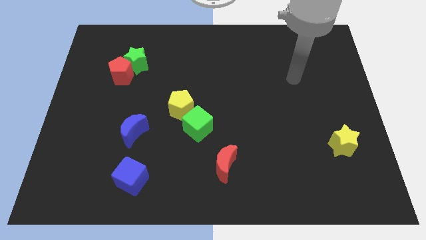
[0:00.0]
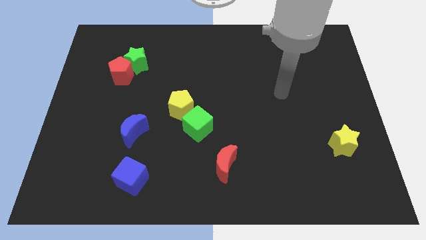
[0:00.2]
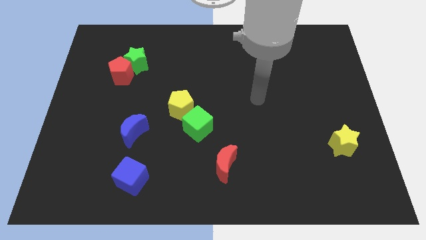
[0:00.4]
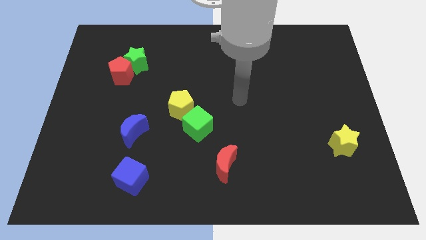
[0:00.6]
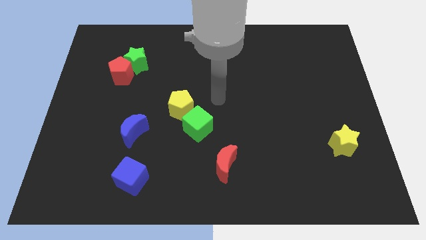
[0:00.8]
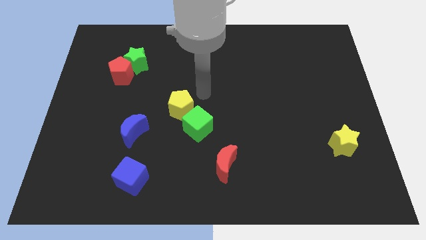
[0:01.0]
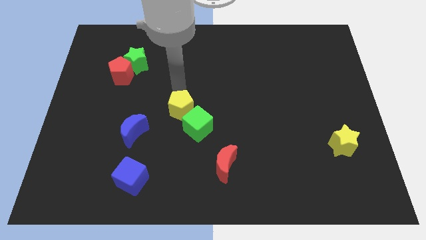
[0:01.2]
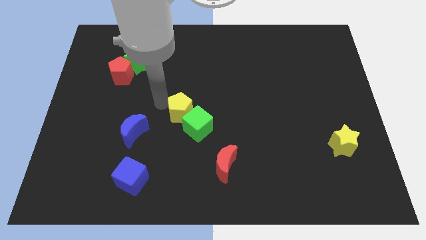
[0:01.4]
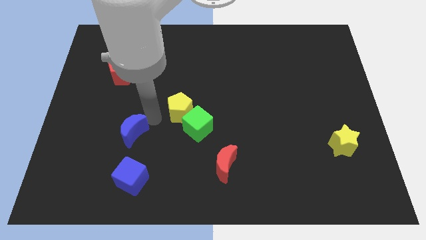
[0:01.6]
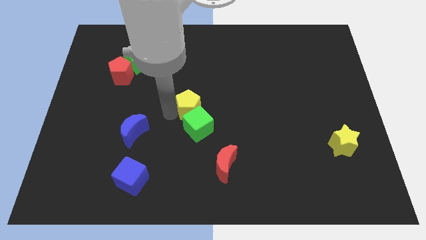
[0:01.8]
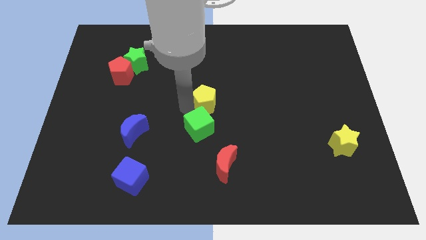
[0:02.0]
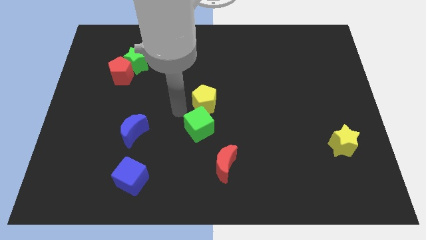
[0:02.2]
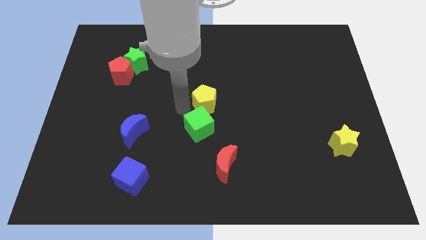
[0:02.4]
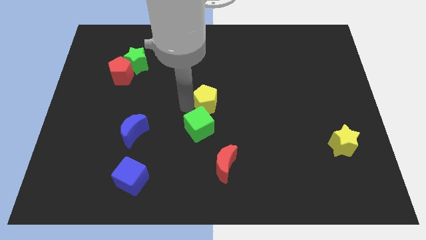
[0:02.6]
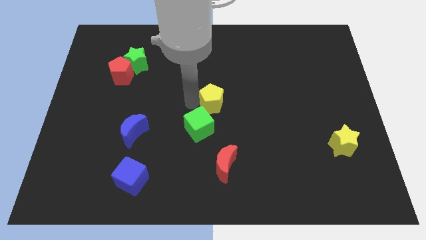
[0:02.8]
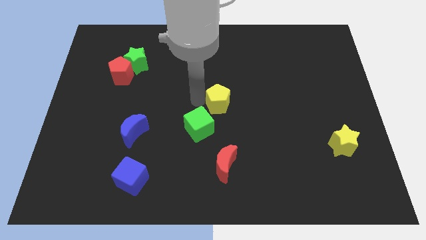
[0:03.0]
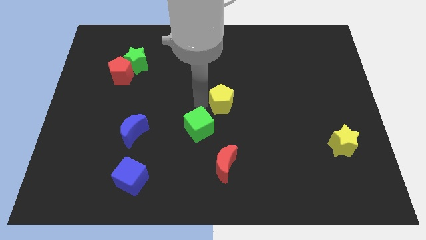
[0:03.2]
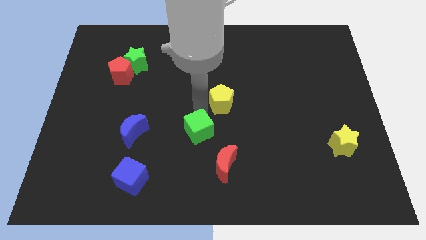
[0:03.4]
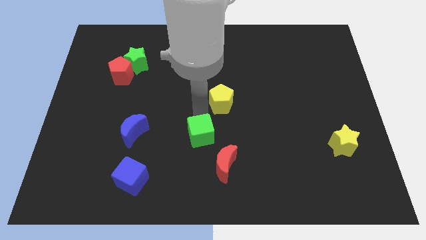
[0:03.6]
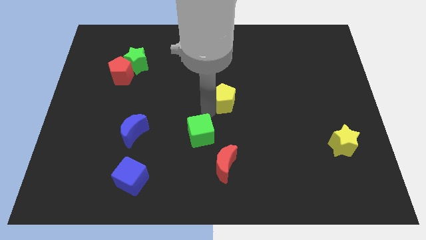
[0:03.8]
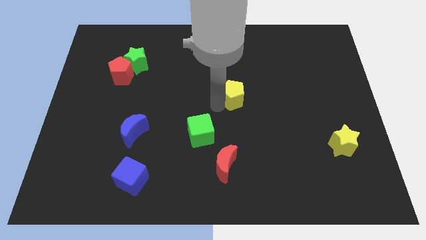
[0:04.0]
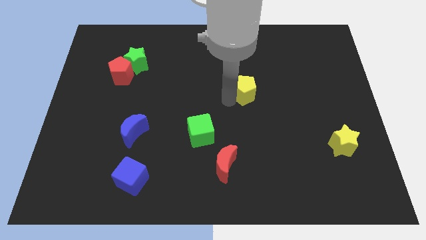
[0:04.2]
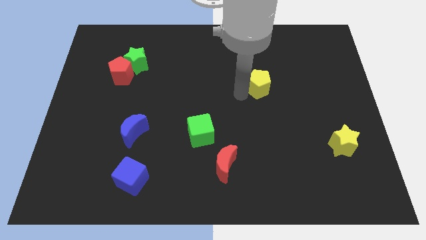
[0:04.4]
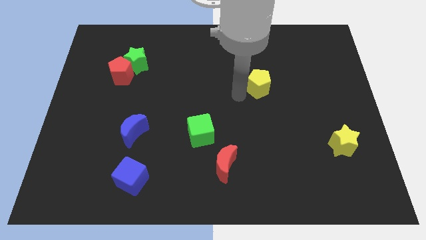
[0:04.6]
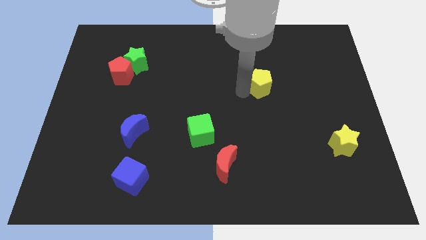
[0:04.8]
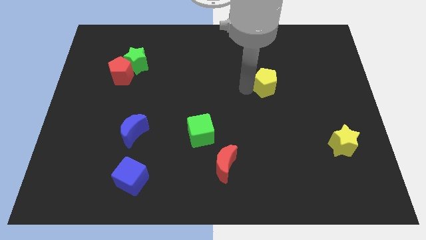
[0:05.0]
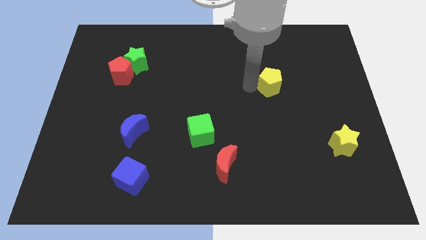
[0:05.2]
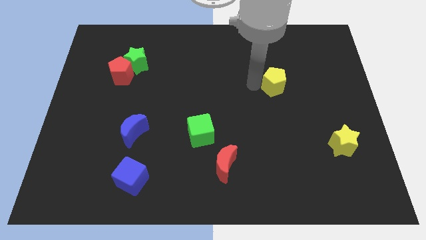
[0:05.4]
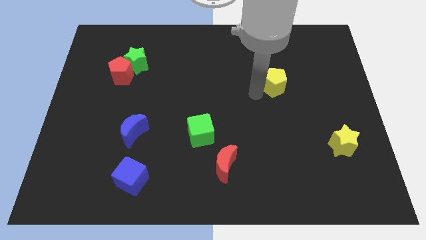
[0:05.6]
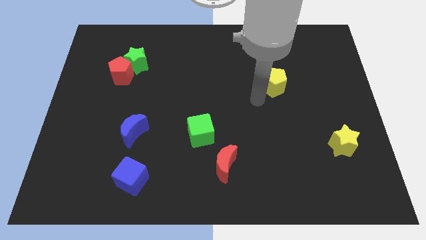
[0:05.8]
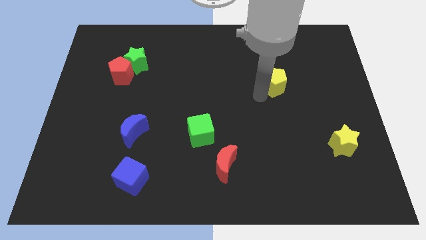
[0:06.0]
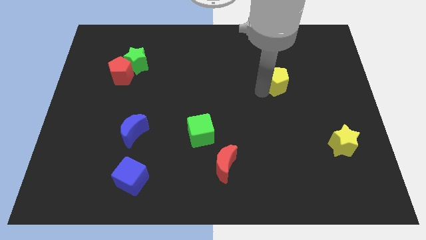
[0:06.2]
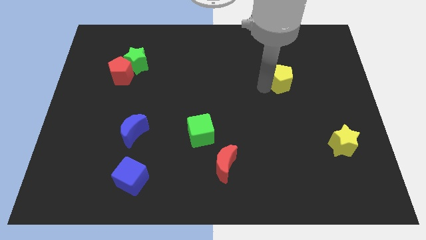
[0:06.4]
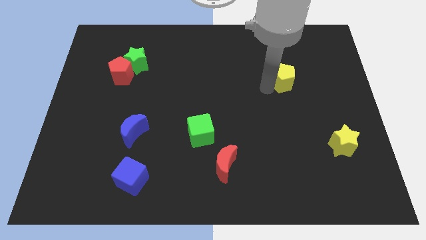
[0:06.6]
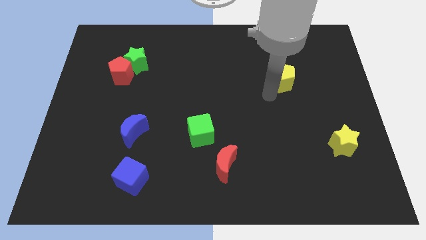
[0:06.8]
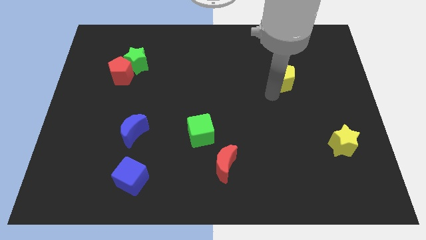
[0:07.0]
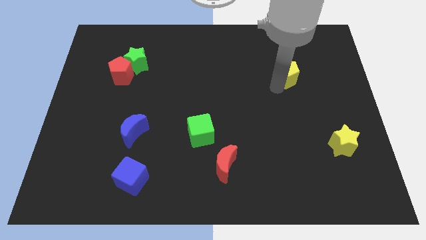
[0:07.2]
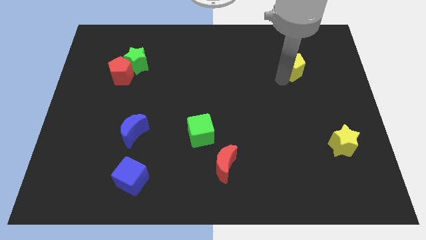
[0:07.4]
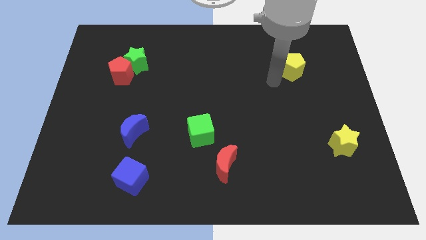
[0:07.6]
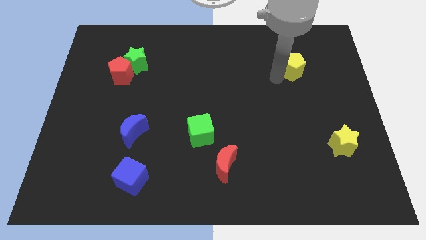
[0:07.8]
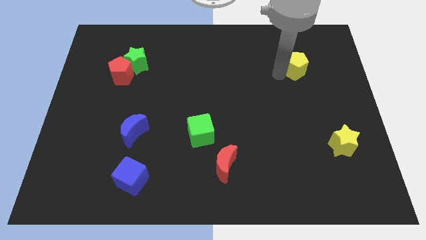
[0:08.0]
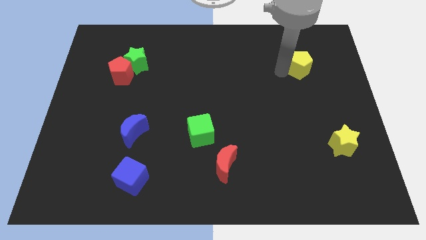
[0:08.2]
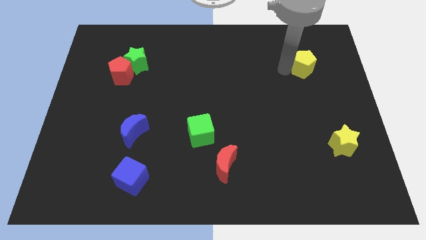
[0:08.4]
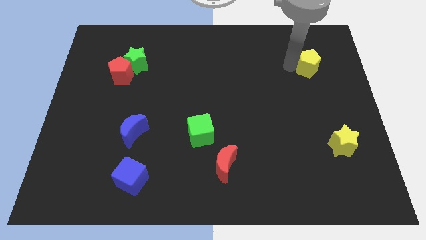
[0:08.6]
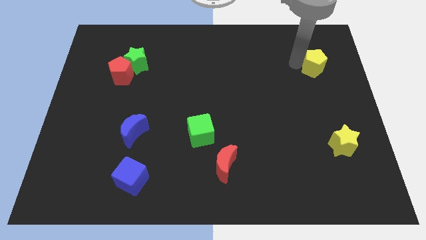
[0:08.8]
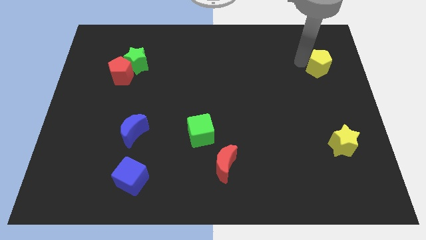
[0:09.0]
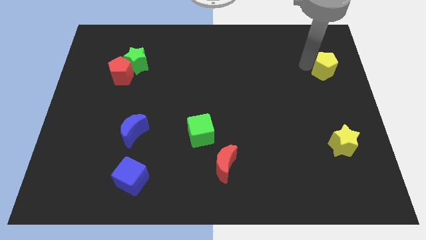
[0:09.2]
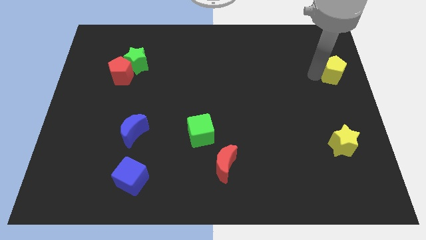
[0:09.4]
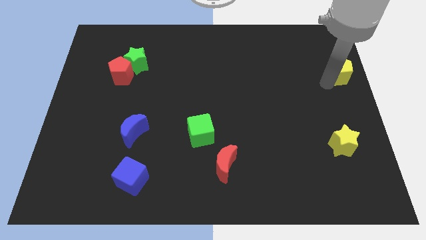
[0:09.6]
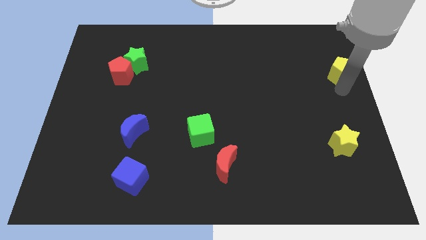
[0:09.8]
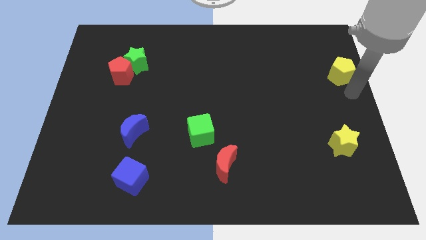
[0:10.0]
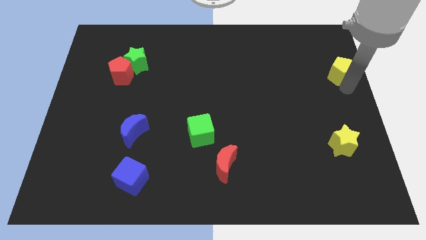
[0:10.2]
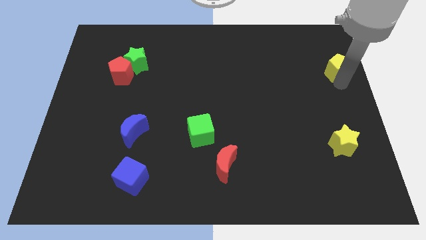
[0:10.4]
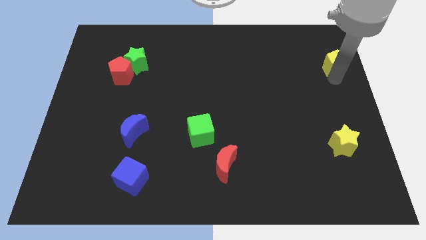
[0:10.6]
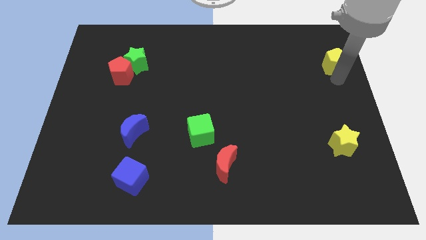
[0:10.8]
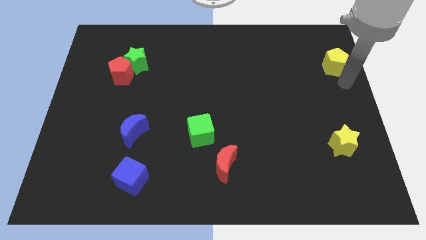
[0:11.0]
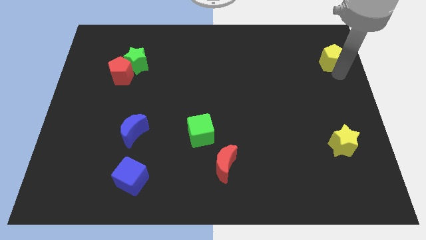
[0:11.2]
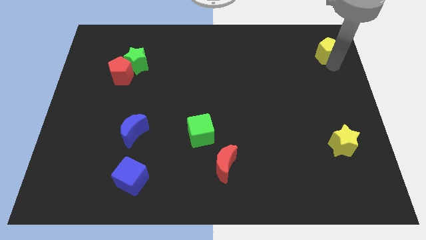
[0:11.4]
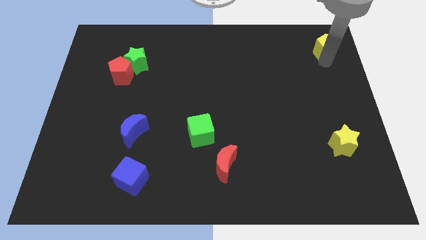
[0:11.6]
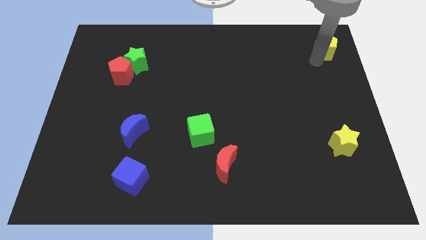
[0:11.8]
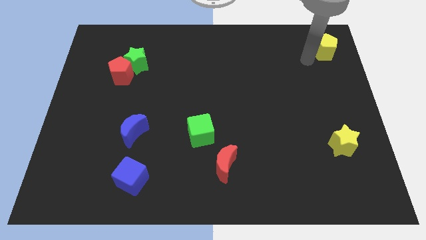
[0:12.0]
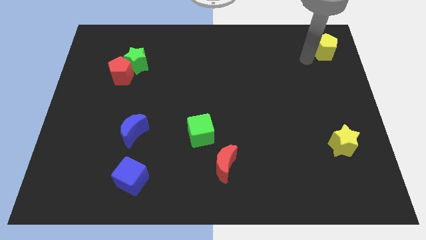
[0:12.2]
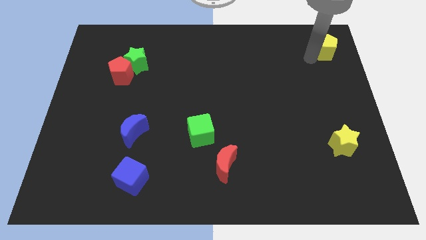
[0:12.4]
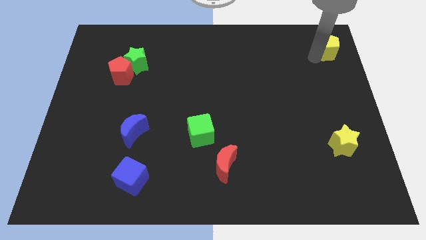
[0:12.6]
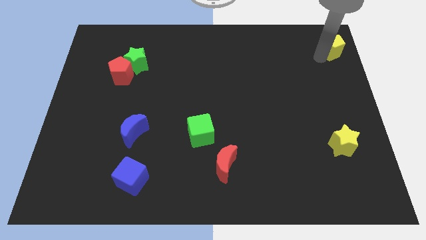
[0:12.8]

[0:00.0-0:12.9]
move the yellow pentagon to the top right corner

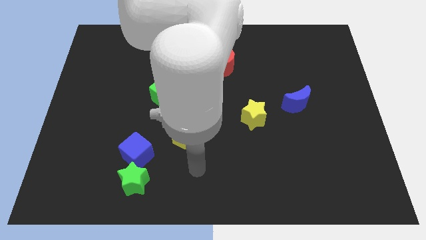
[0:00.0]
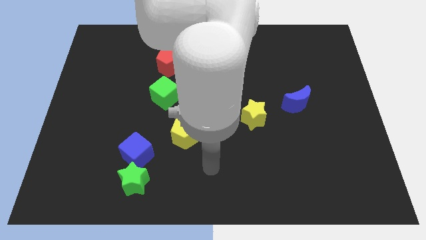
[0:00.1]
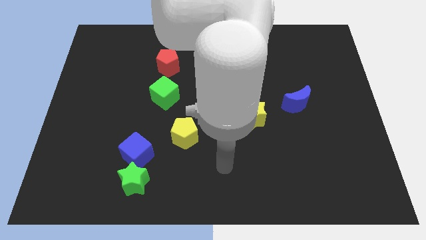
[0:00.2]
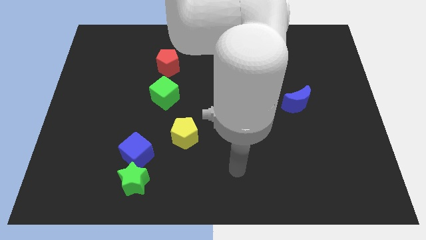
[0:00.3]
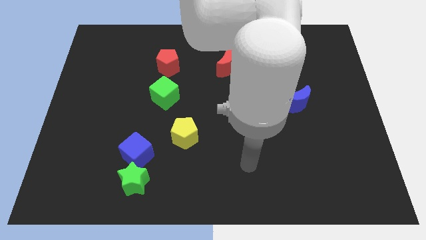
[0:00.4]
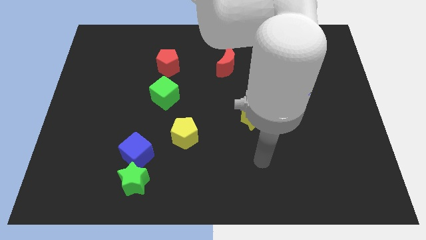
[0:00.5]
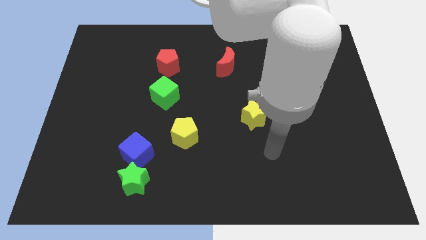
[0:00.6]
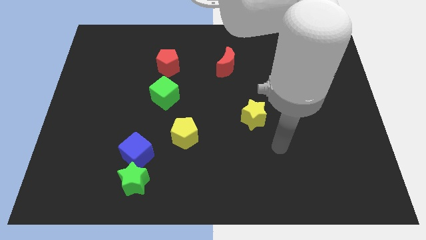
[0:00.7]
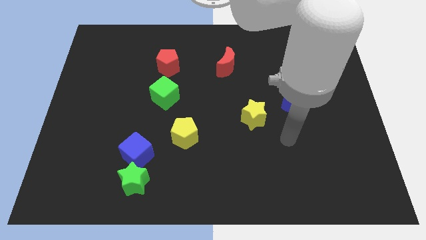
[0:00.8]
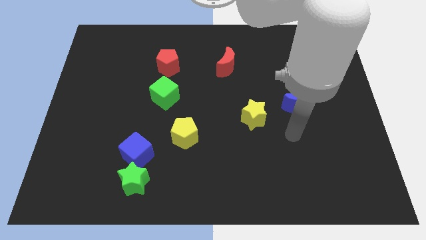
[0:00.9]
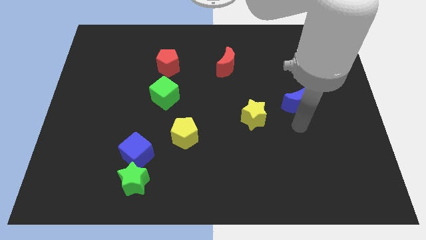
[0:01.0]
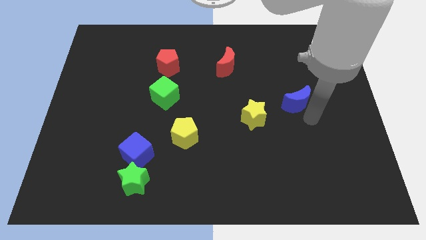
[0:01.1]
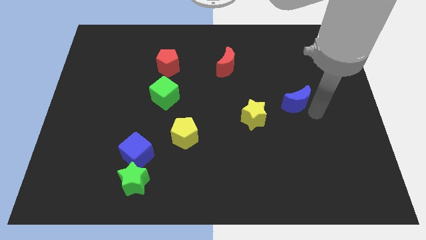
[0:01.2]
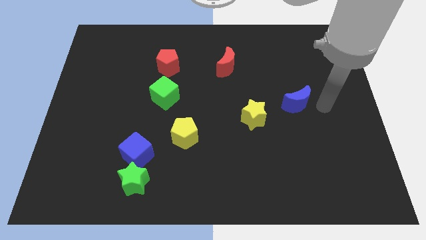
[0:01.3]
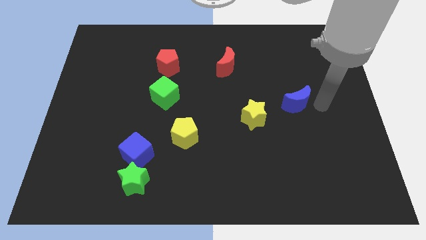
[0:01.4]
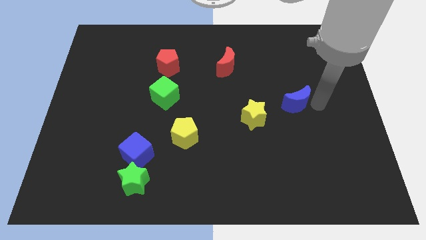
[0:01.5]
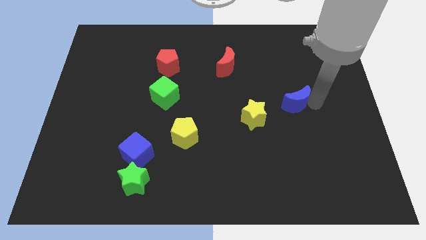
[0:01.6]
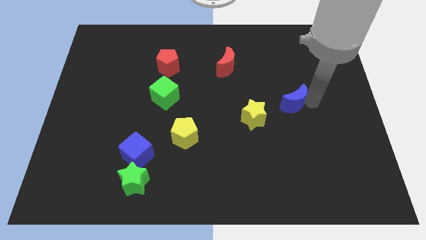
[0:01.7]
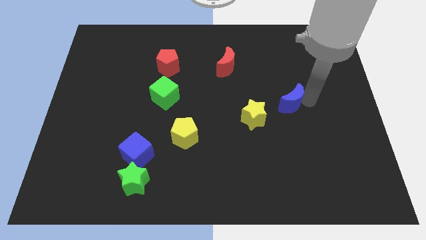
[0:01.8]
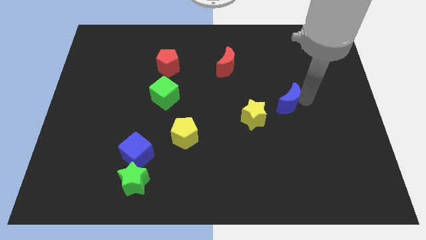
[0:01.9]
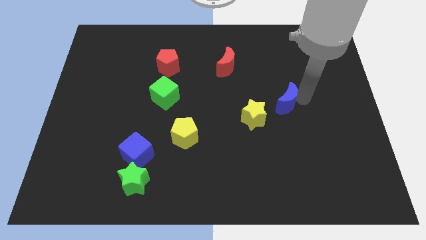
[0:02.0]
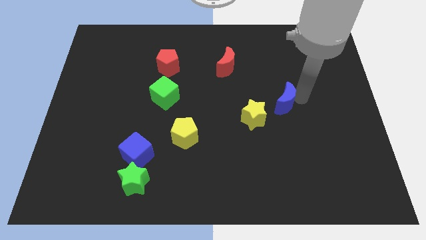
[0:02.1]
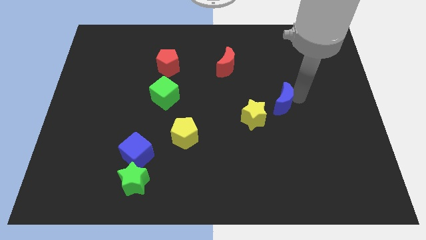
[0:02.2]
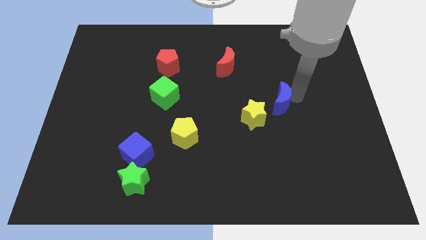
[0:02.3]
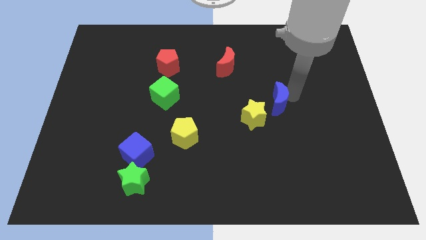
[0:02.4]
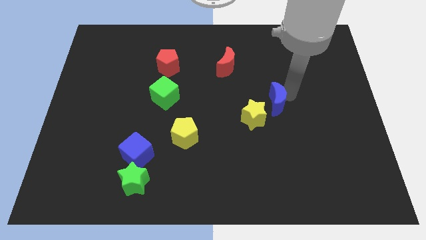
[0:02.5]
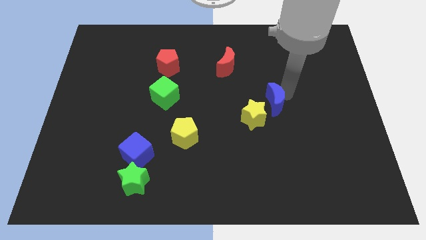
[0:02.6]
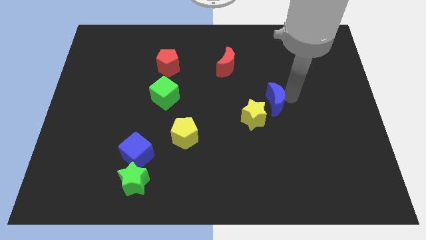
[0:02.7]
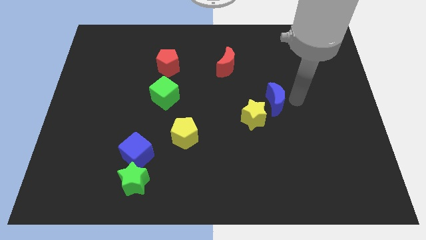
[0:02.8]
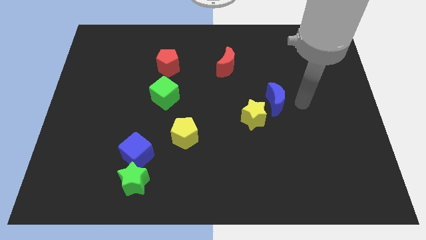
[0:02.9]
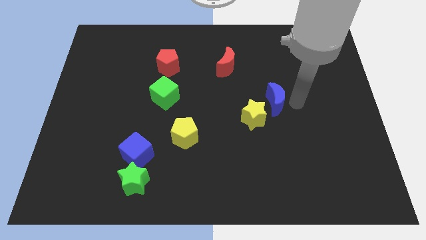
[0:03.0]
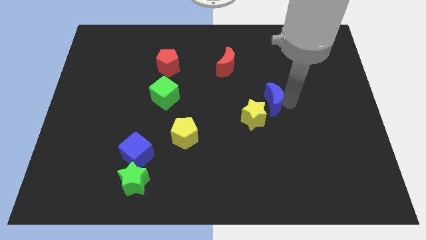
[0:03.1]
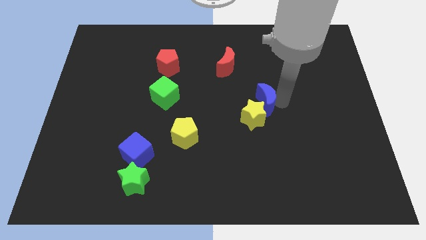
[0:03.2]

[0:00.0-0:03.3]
slide the blue moon to the middle of the board
